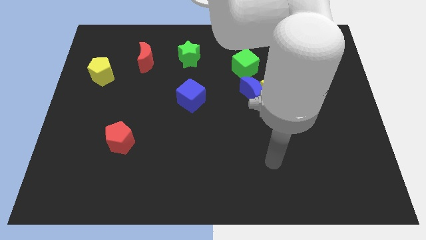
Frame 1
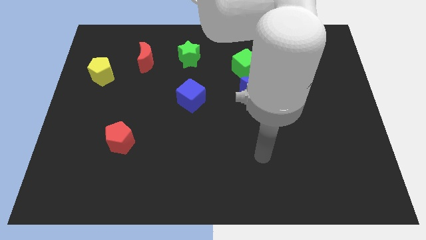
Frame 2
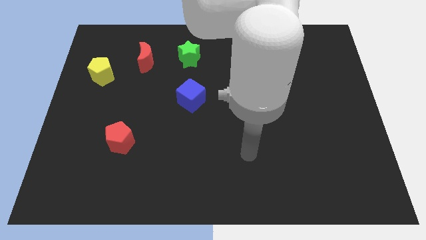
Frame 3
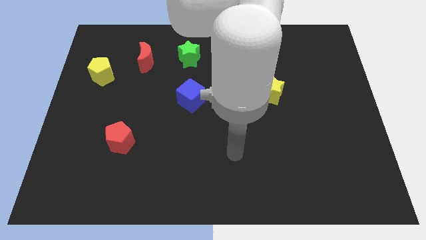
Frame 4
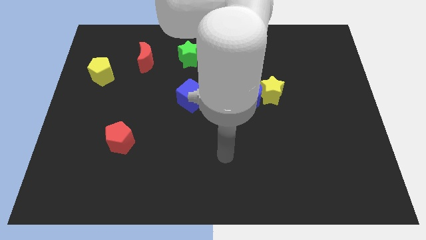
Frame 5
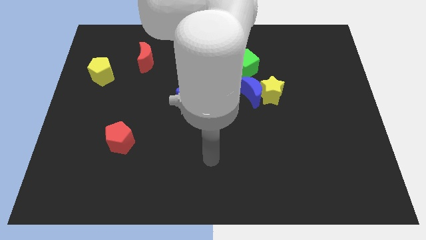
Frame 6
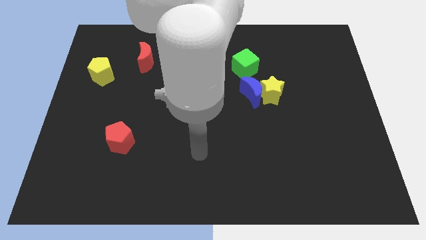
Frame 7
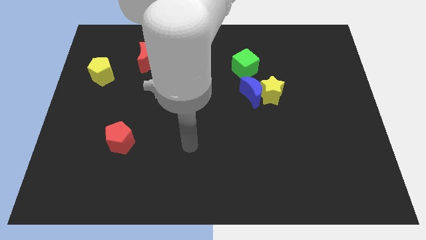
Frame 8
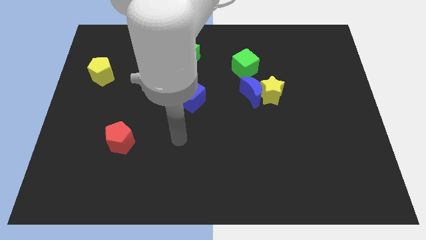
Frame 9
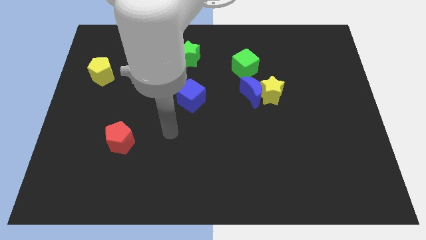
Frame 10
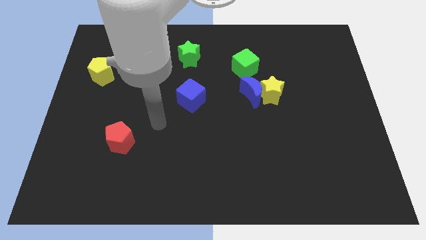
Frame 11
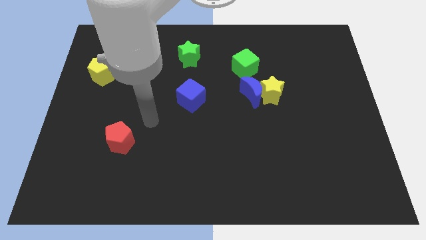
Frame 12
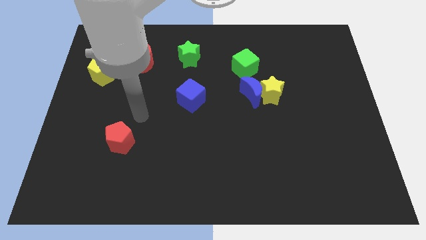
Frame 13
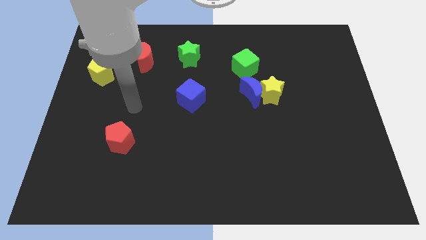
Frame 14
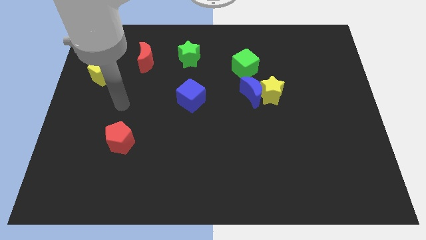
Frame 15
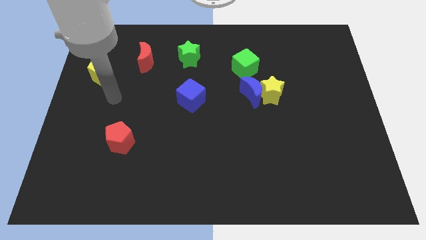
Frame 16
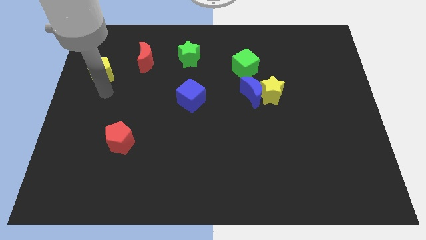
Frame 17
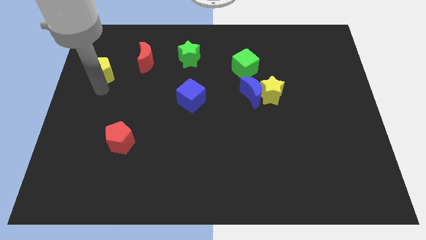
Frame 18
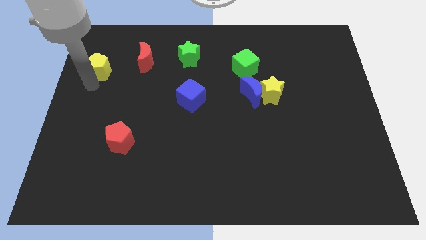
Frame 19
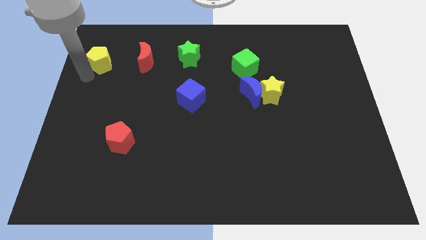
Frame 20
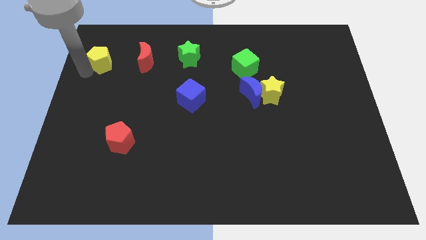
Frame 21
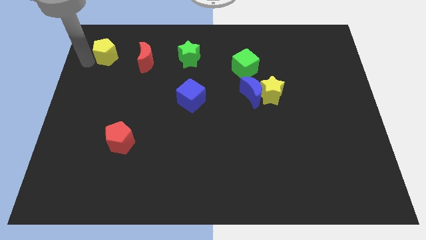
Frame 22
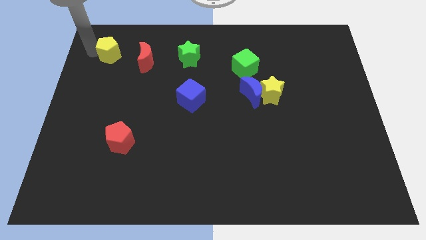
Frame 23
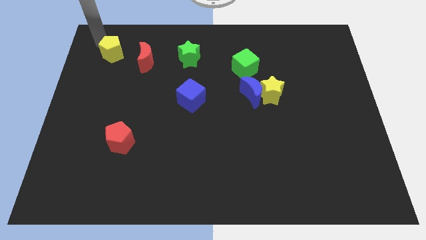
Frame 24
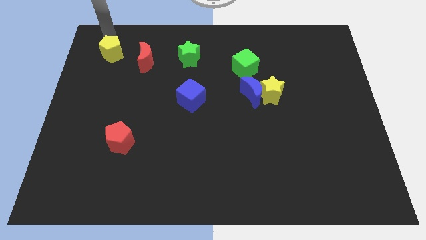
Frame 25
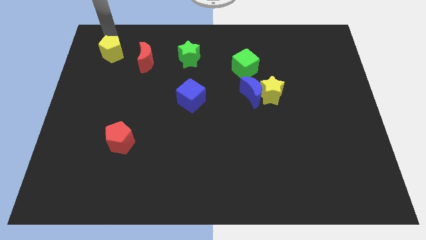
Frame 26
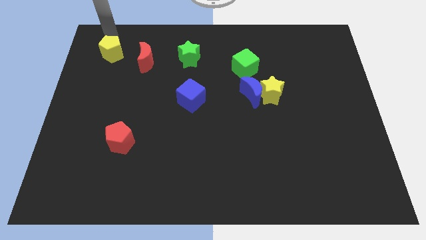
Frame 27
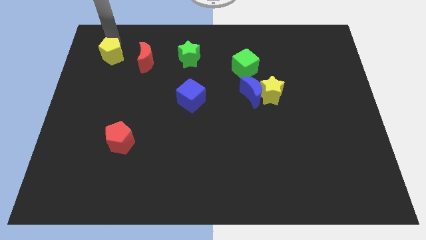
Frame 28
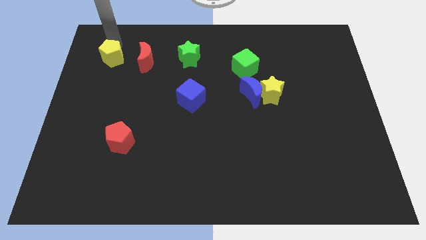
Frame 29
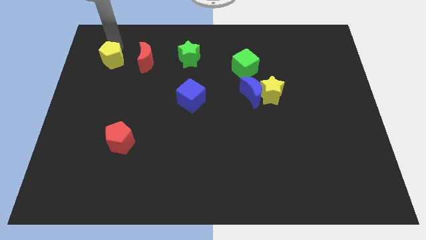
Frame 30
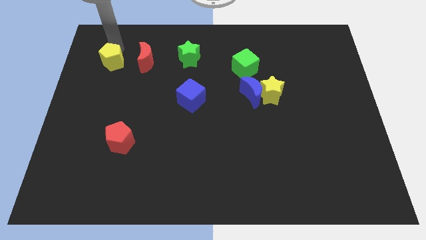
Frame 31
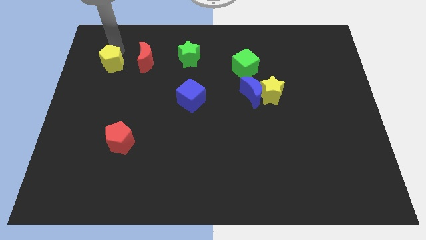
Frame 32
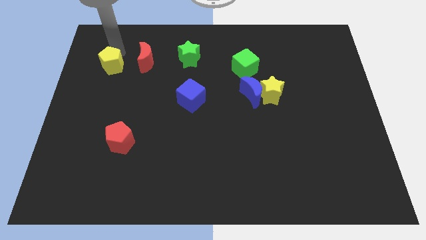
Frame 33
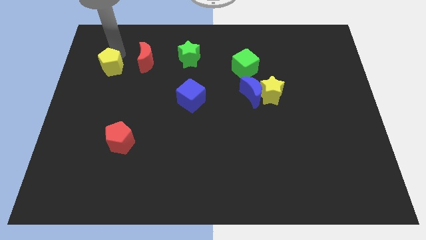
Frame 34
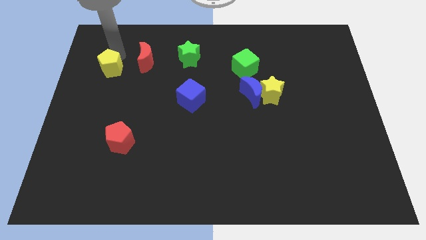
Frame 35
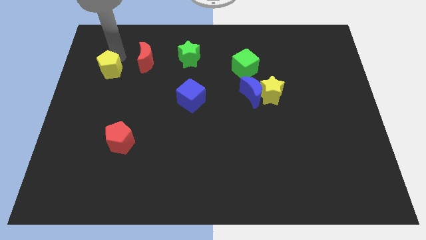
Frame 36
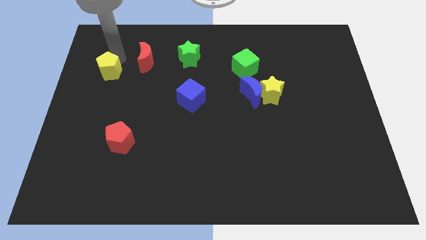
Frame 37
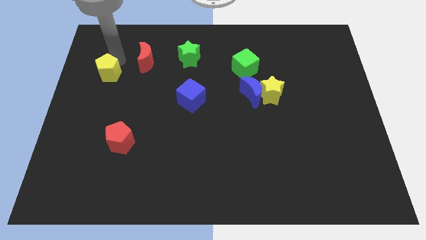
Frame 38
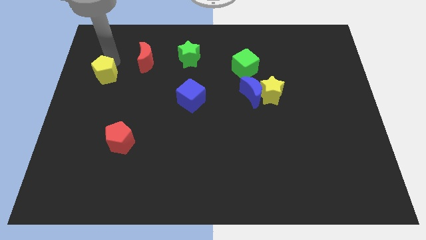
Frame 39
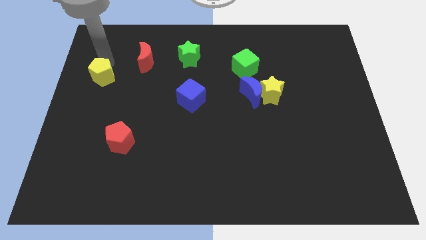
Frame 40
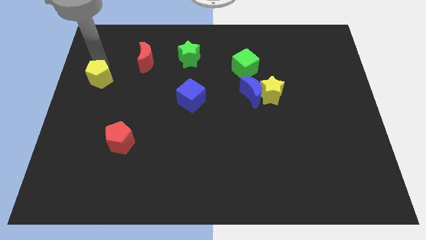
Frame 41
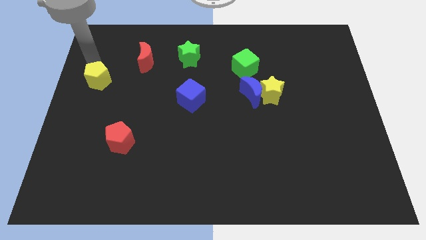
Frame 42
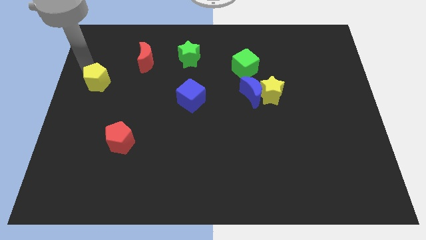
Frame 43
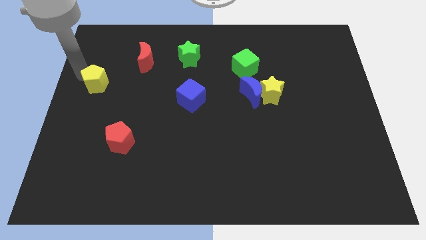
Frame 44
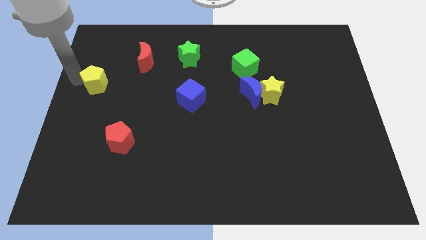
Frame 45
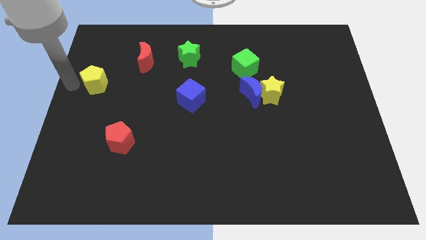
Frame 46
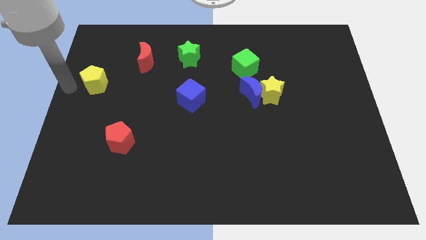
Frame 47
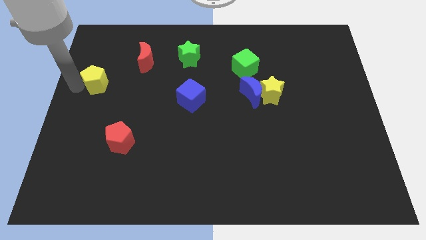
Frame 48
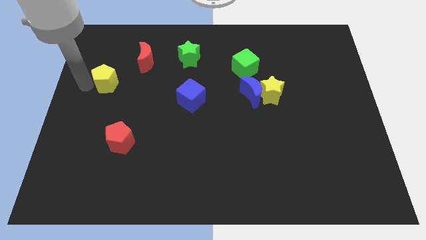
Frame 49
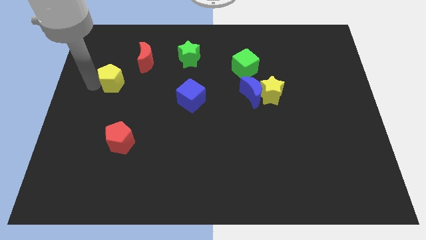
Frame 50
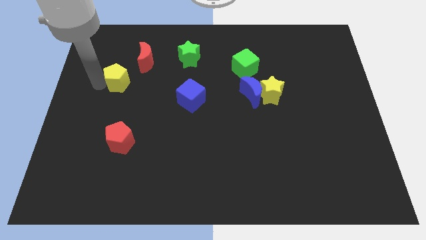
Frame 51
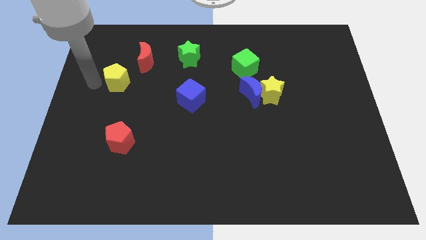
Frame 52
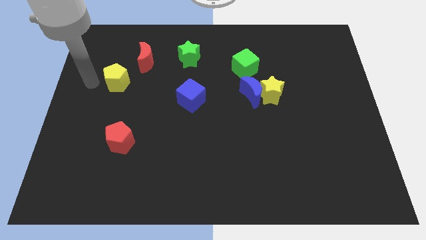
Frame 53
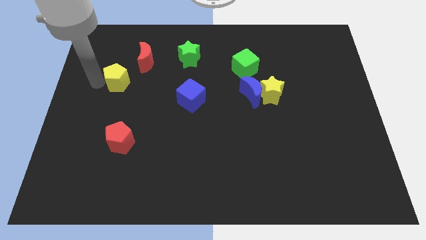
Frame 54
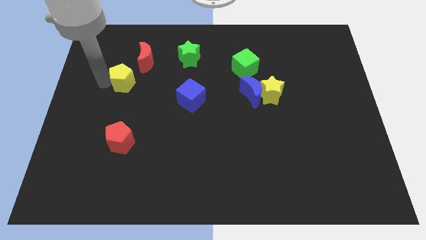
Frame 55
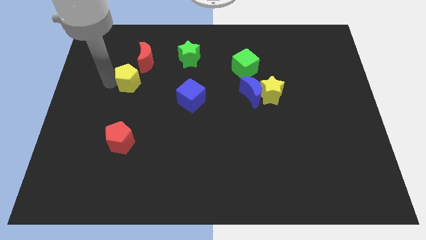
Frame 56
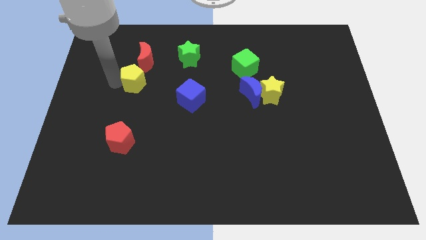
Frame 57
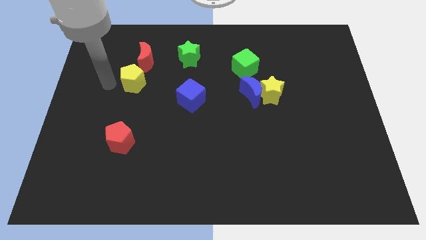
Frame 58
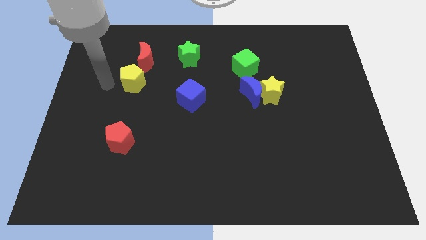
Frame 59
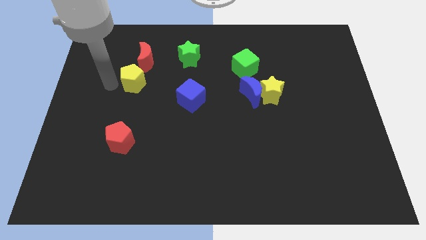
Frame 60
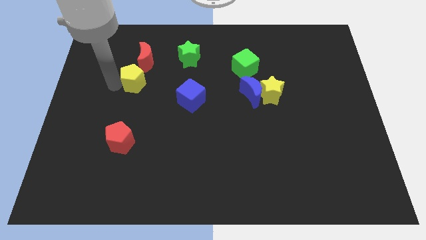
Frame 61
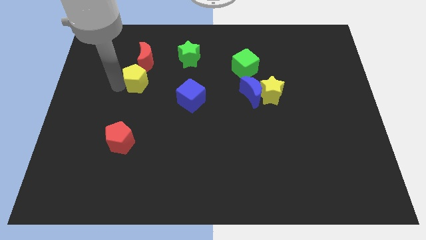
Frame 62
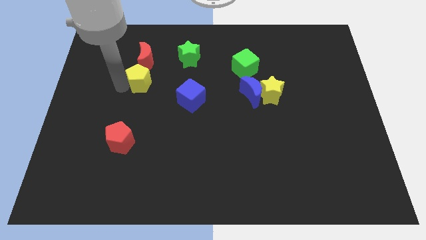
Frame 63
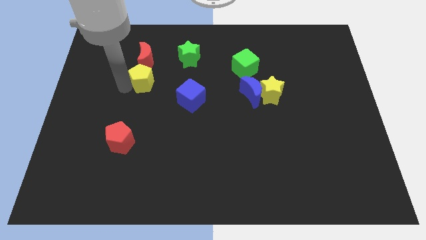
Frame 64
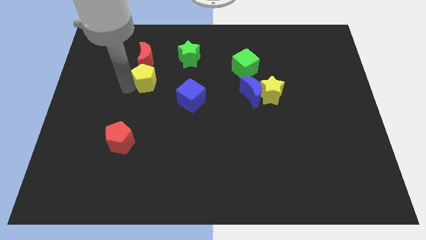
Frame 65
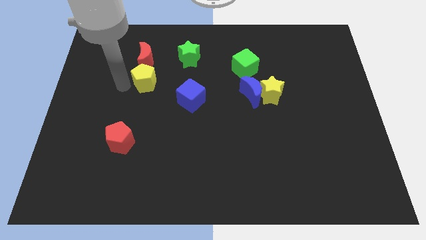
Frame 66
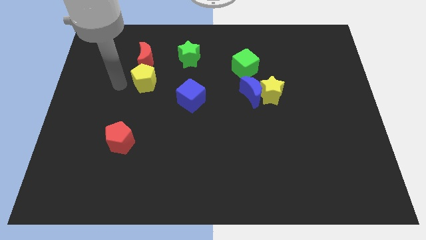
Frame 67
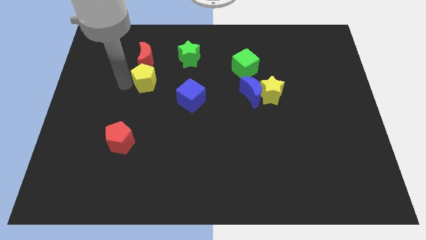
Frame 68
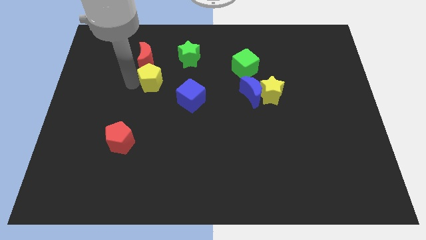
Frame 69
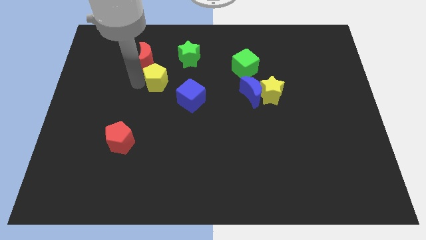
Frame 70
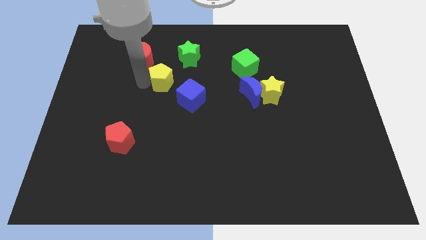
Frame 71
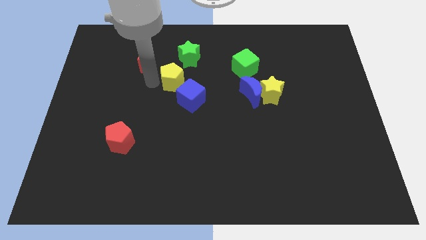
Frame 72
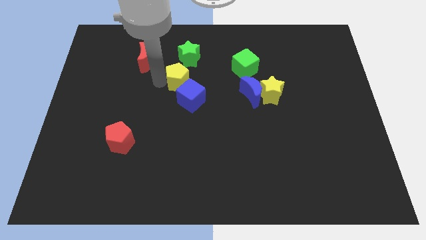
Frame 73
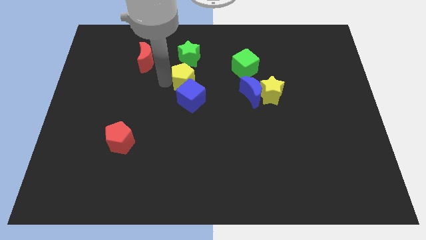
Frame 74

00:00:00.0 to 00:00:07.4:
slide the yellow pentagon to the right

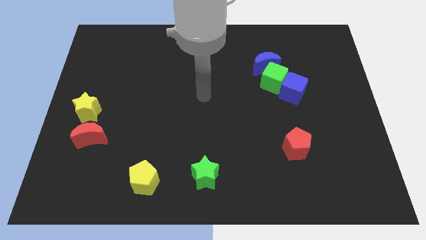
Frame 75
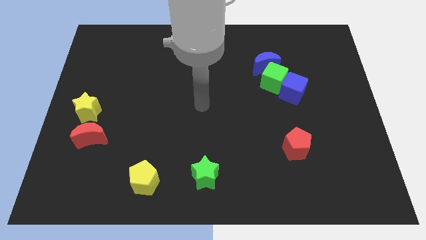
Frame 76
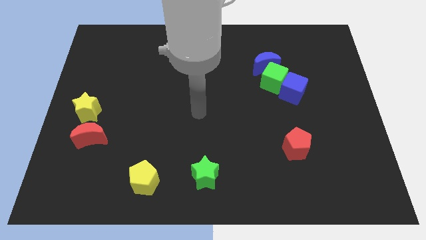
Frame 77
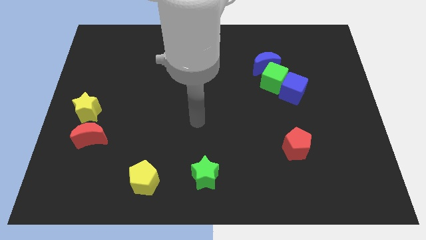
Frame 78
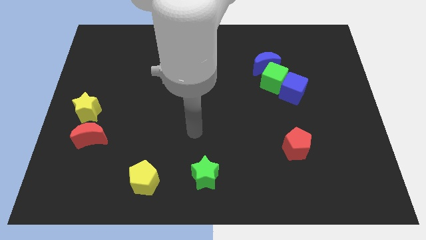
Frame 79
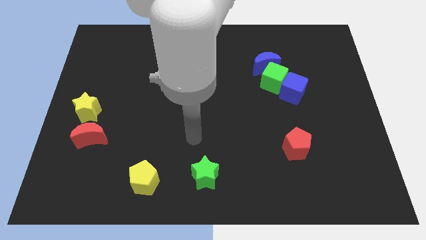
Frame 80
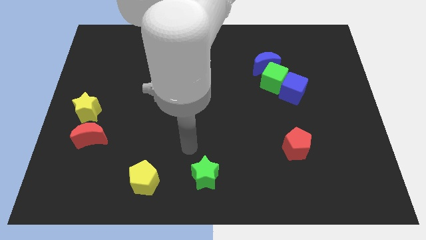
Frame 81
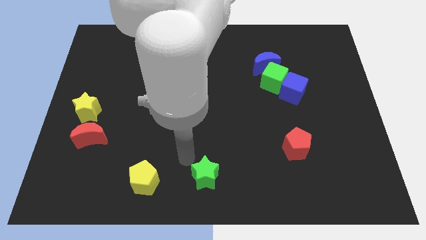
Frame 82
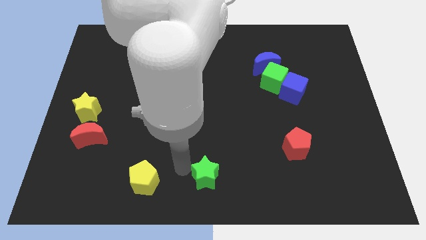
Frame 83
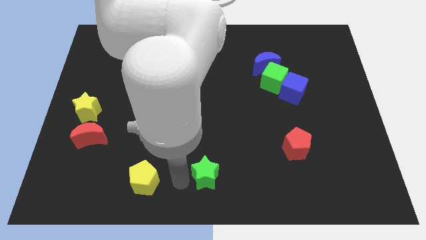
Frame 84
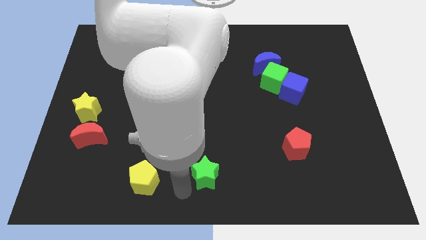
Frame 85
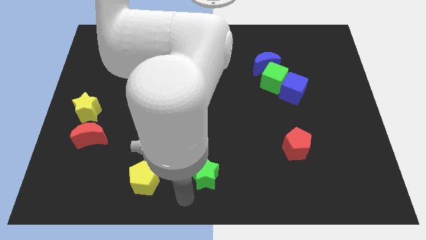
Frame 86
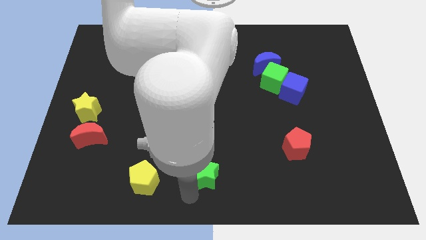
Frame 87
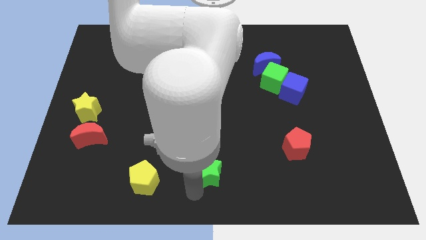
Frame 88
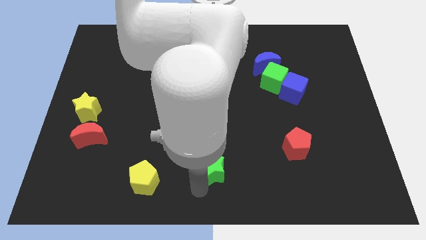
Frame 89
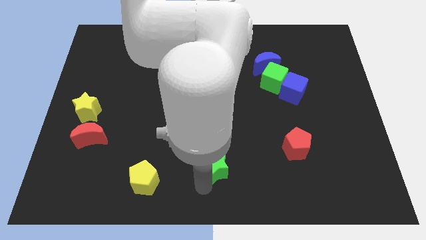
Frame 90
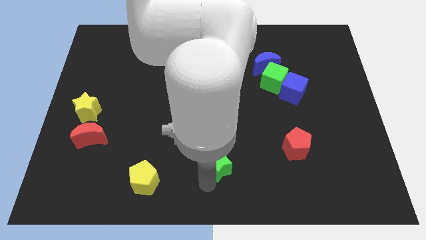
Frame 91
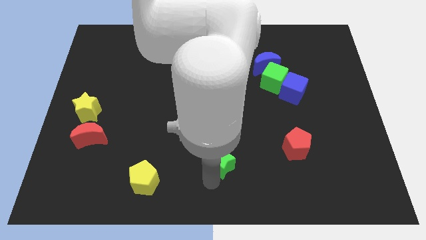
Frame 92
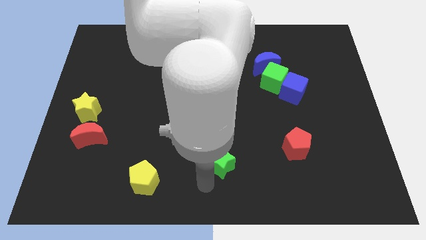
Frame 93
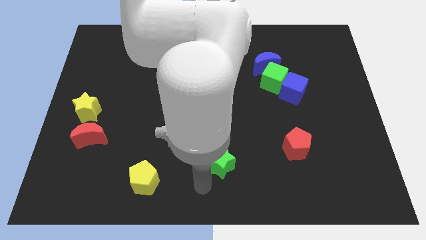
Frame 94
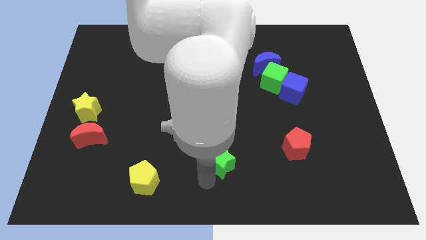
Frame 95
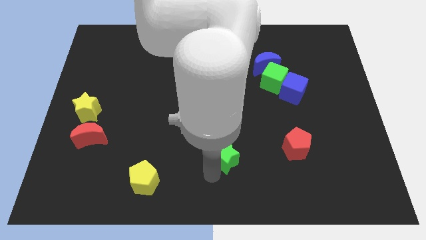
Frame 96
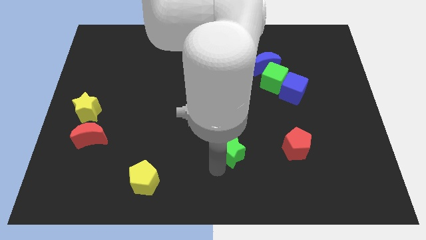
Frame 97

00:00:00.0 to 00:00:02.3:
move the green star up and then to the right a little bit
